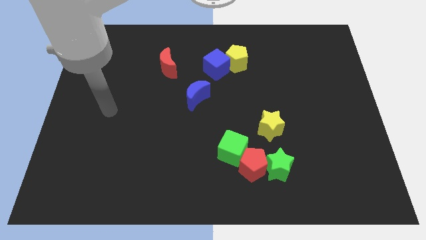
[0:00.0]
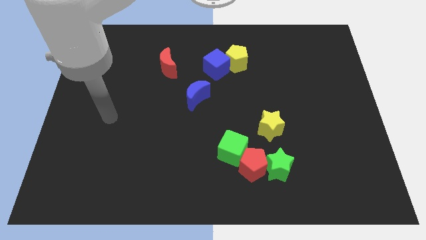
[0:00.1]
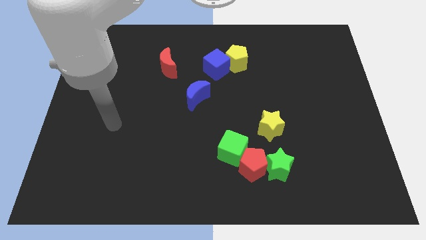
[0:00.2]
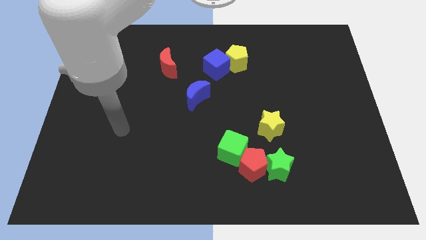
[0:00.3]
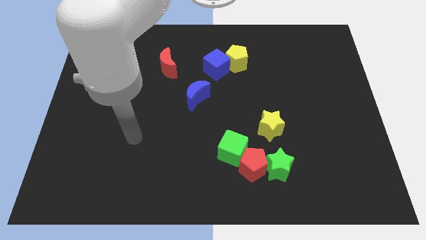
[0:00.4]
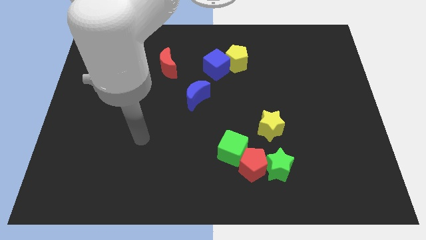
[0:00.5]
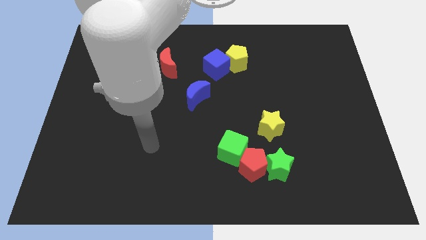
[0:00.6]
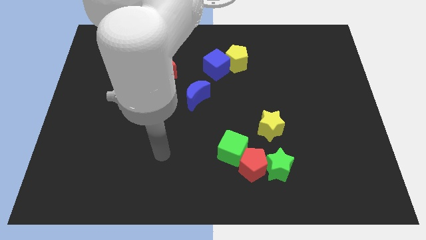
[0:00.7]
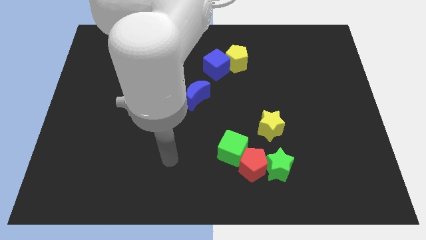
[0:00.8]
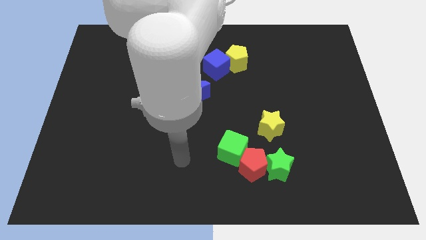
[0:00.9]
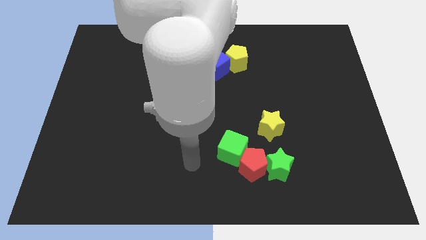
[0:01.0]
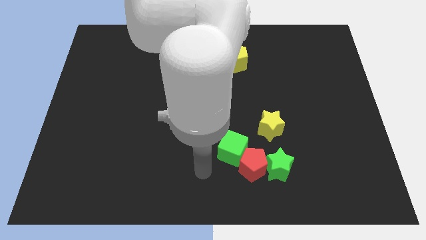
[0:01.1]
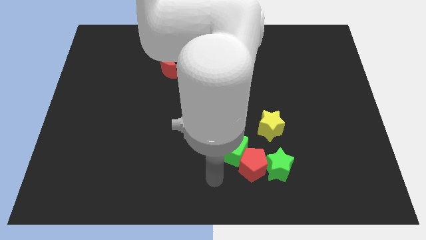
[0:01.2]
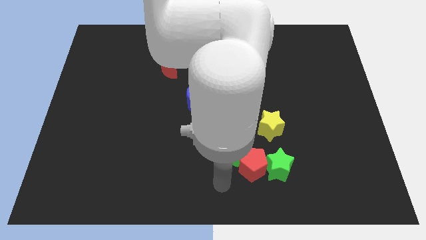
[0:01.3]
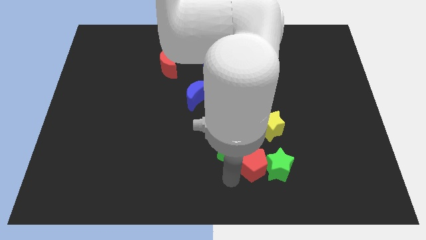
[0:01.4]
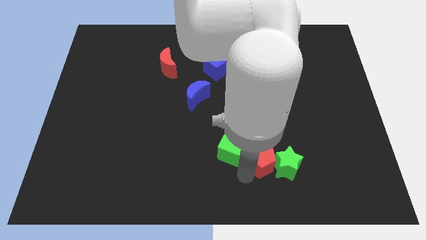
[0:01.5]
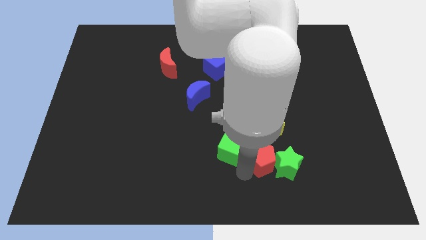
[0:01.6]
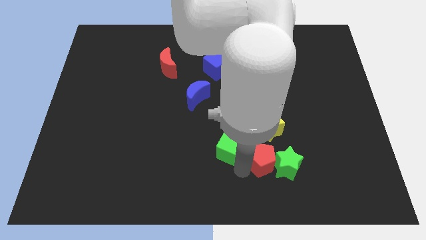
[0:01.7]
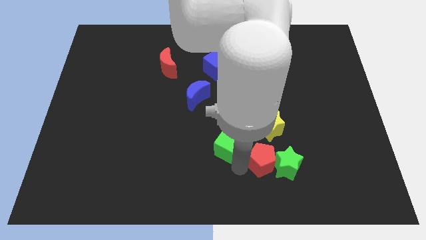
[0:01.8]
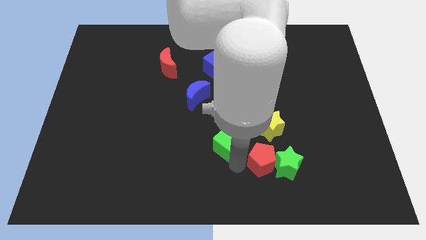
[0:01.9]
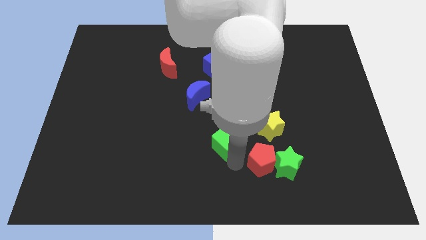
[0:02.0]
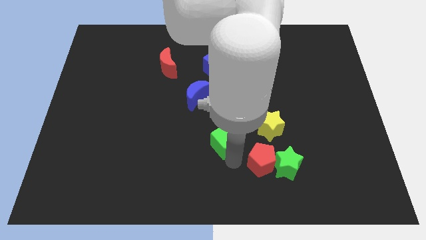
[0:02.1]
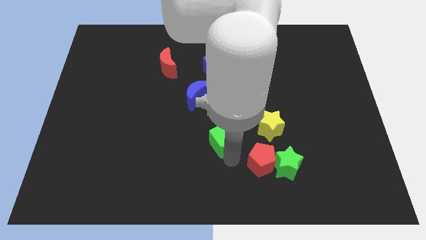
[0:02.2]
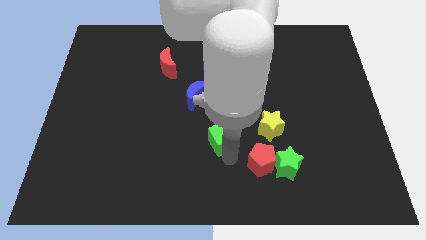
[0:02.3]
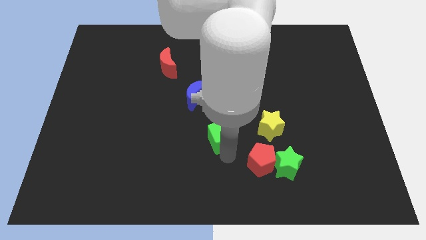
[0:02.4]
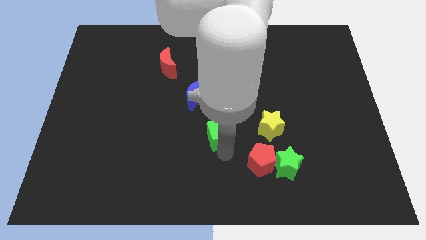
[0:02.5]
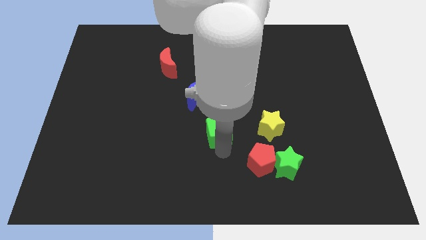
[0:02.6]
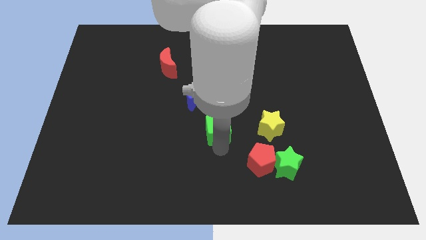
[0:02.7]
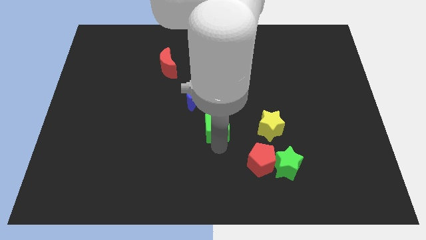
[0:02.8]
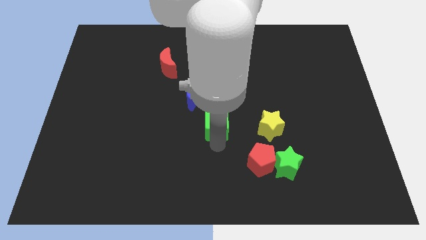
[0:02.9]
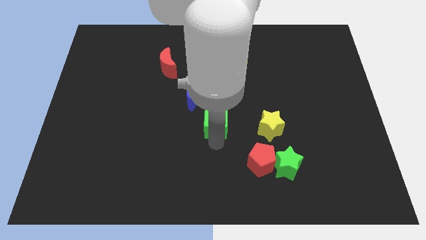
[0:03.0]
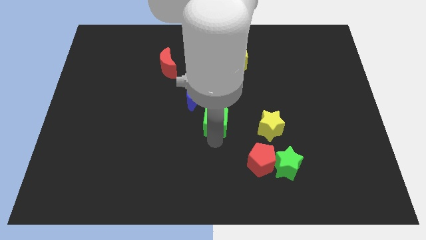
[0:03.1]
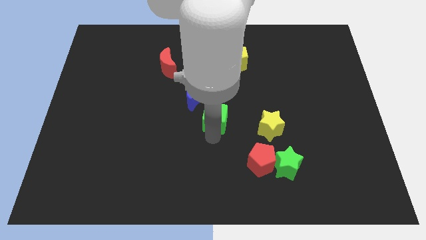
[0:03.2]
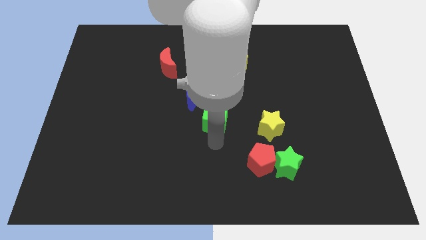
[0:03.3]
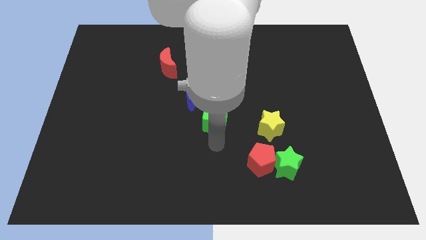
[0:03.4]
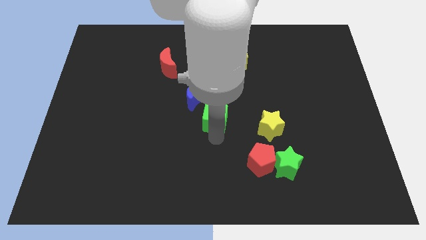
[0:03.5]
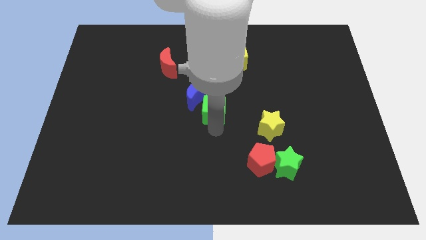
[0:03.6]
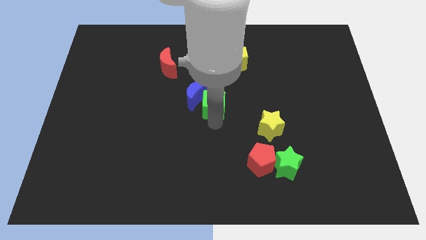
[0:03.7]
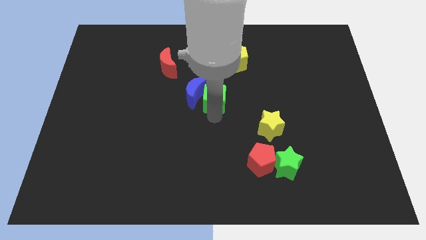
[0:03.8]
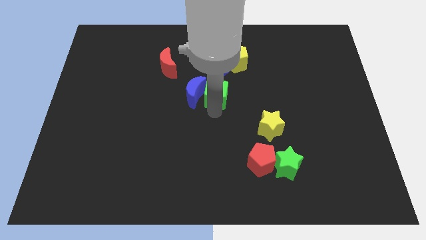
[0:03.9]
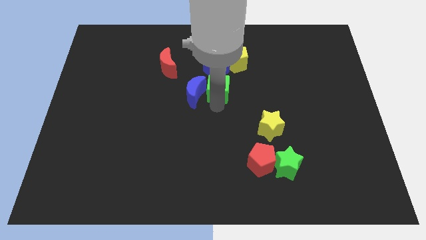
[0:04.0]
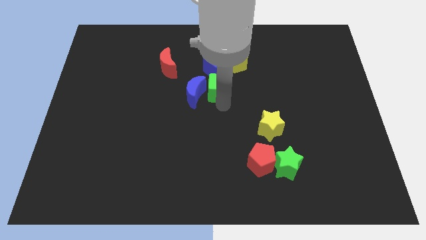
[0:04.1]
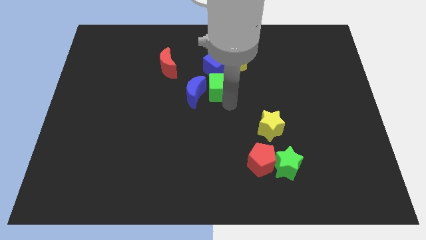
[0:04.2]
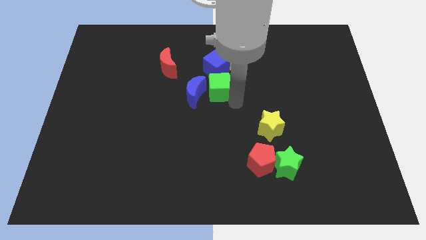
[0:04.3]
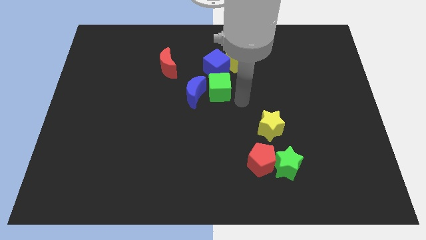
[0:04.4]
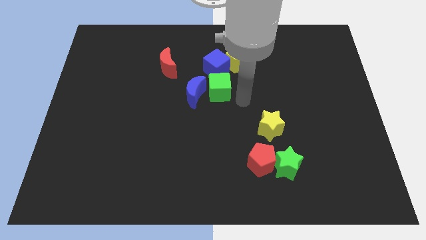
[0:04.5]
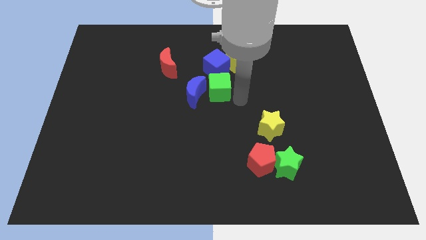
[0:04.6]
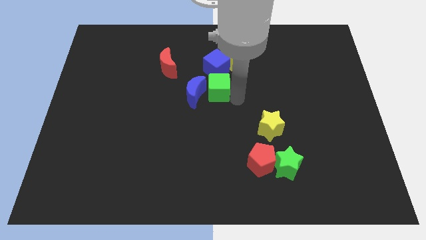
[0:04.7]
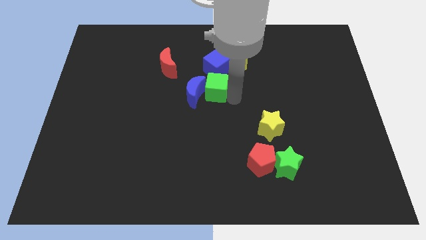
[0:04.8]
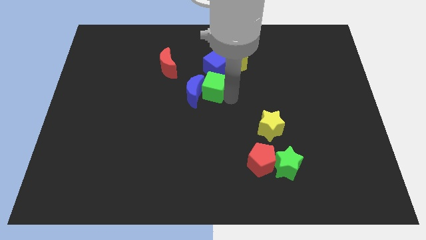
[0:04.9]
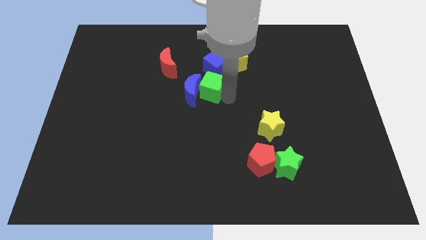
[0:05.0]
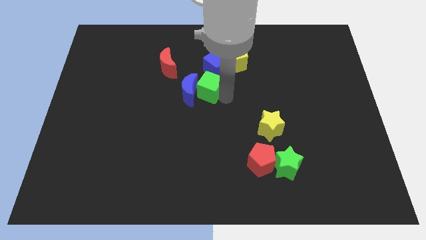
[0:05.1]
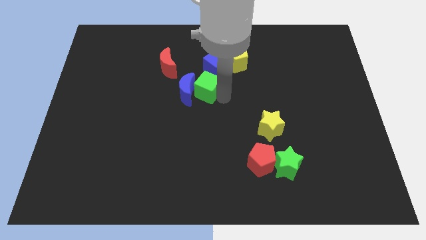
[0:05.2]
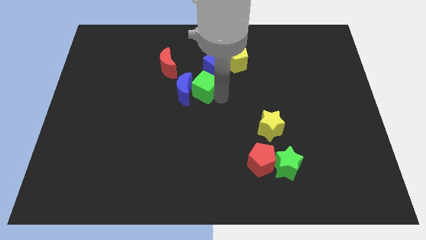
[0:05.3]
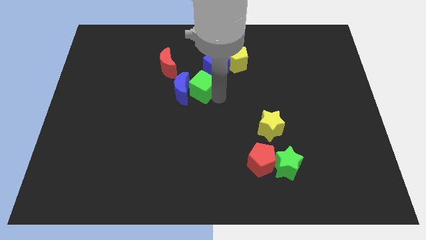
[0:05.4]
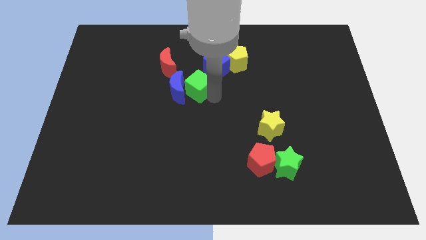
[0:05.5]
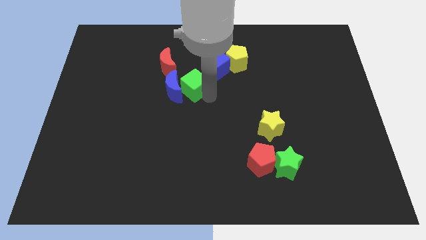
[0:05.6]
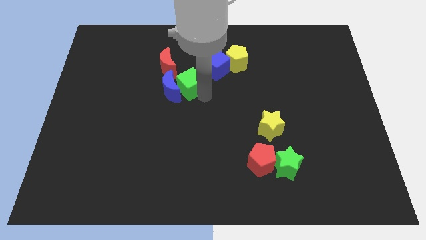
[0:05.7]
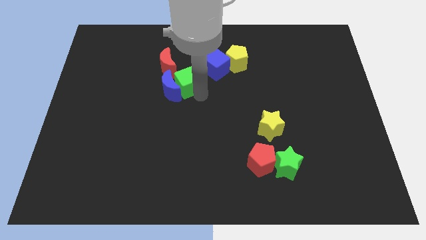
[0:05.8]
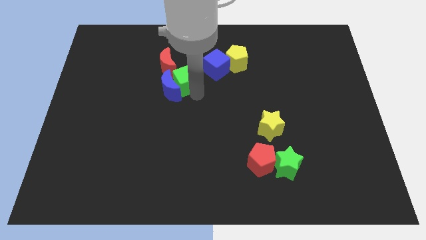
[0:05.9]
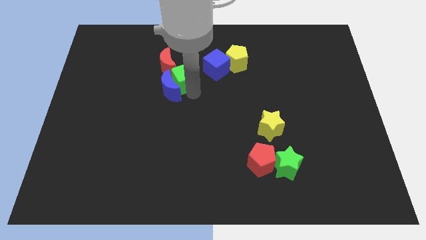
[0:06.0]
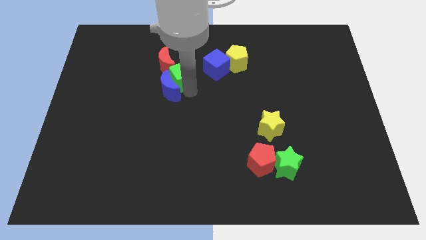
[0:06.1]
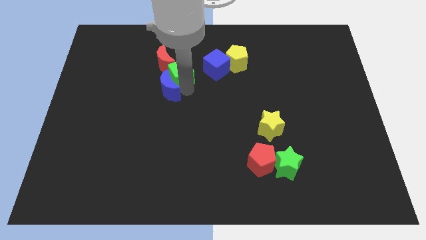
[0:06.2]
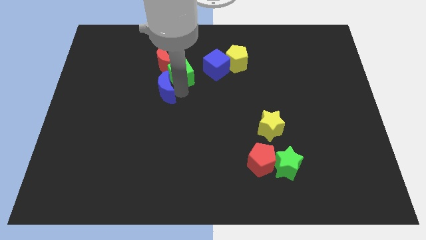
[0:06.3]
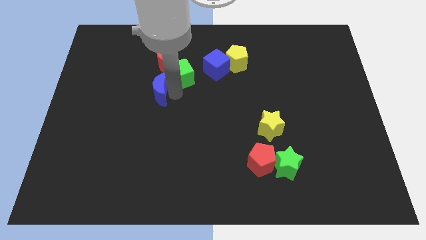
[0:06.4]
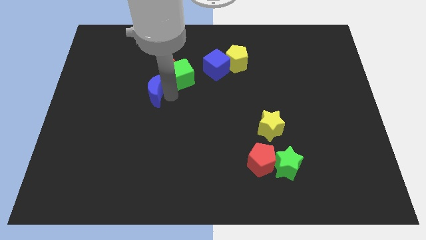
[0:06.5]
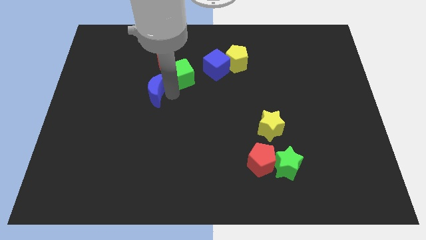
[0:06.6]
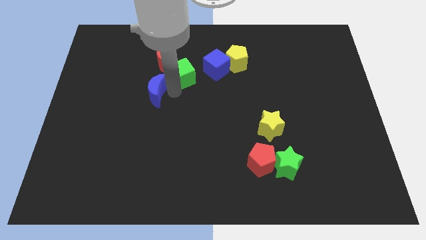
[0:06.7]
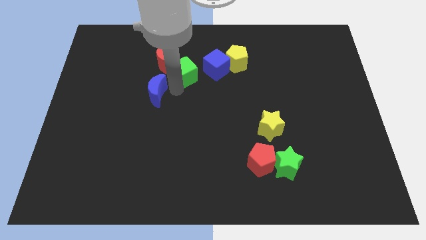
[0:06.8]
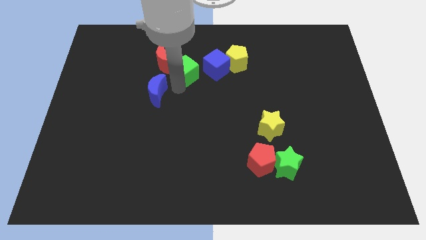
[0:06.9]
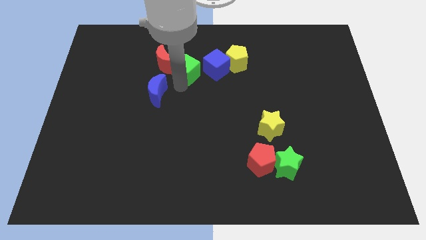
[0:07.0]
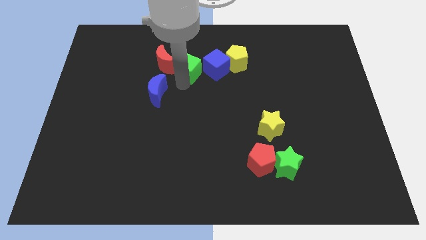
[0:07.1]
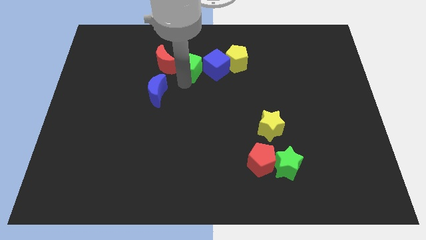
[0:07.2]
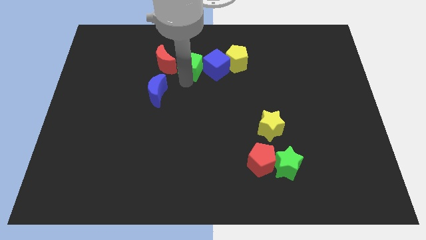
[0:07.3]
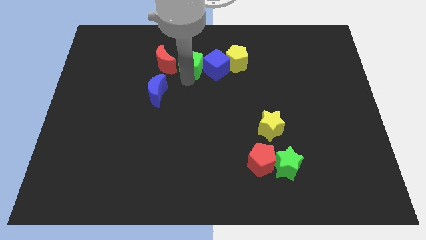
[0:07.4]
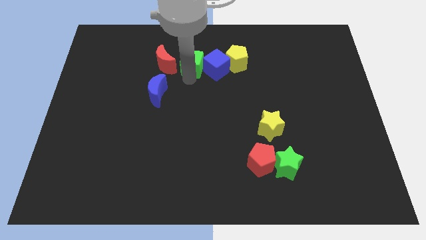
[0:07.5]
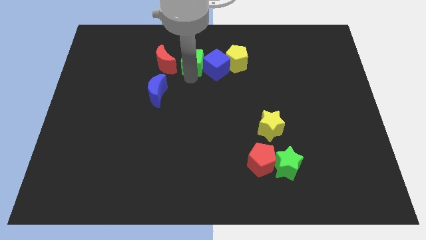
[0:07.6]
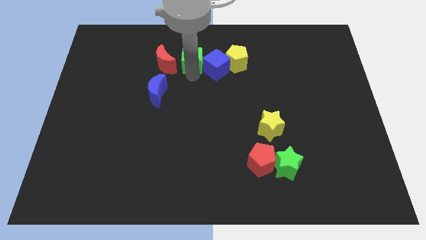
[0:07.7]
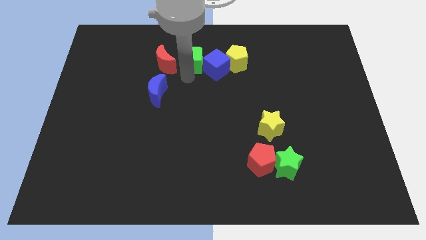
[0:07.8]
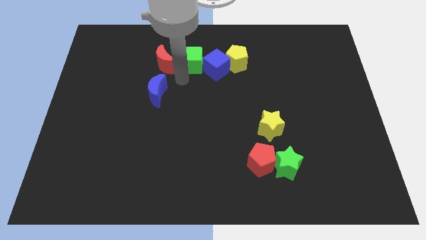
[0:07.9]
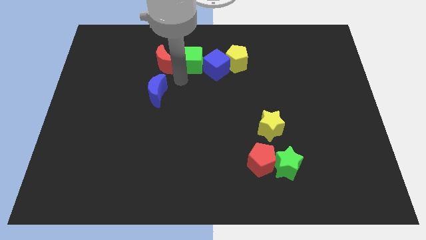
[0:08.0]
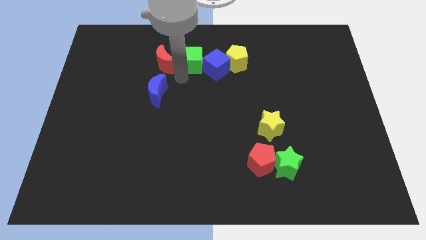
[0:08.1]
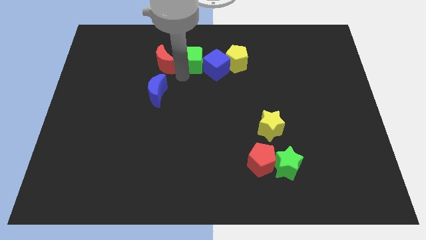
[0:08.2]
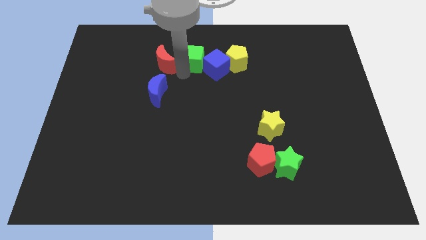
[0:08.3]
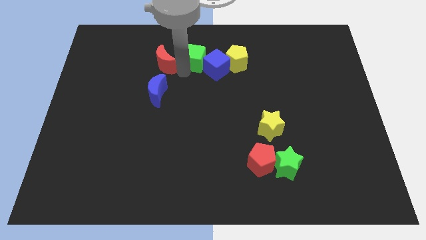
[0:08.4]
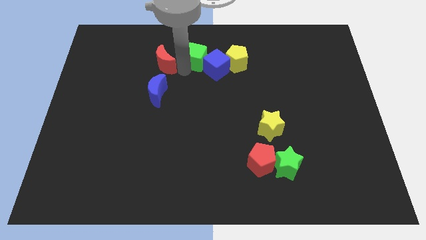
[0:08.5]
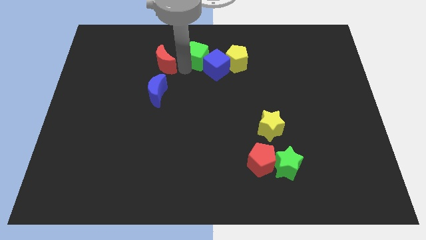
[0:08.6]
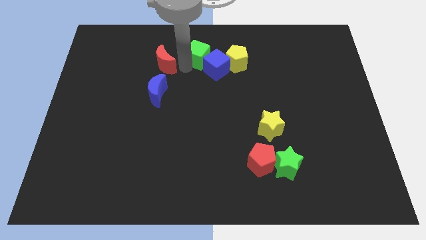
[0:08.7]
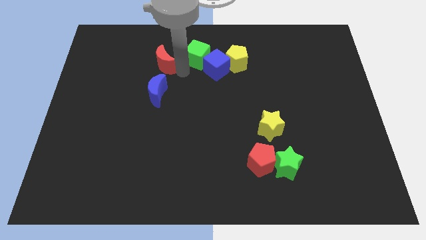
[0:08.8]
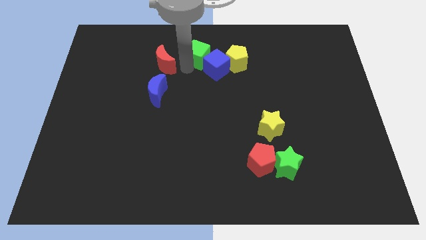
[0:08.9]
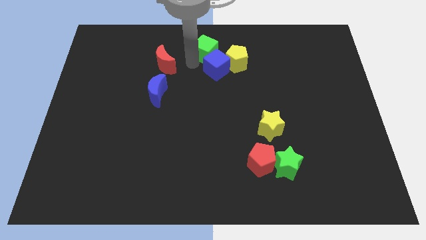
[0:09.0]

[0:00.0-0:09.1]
put the green cube to the top side
